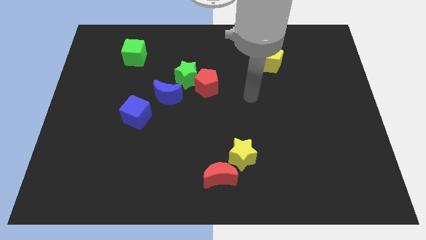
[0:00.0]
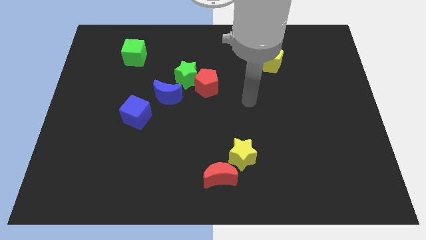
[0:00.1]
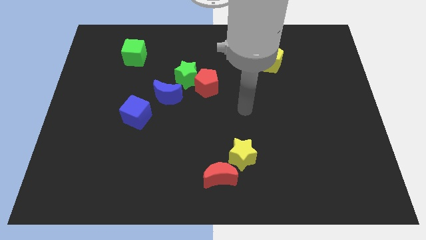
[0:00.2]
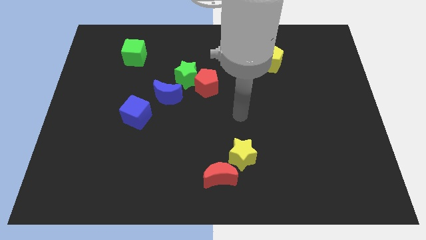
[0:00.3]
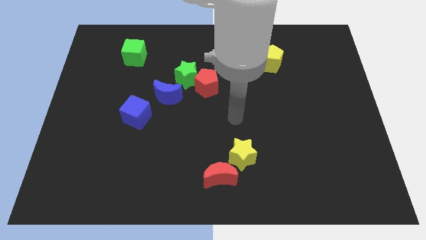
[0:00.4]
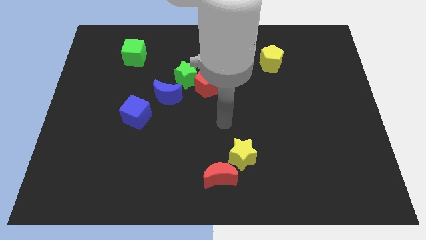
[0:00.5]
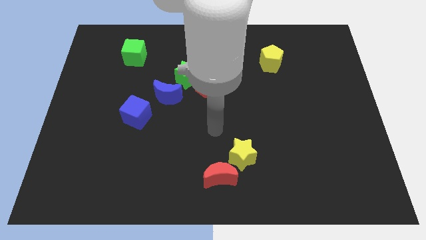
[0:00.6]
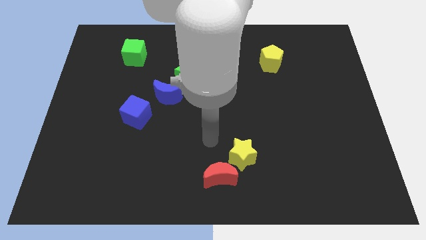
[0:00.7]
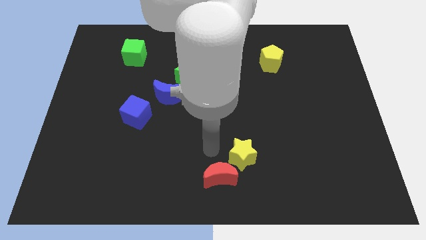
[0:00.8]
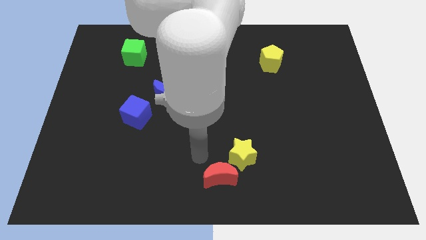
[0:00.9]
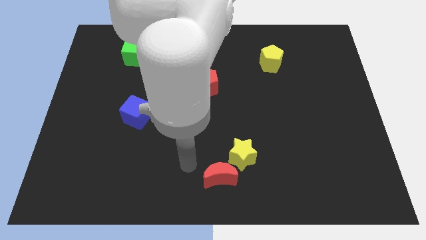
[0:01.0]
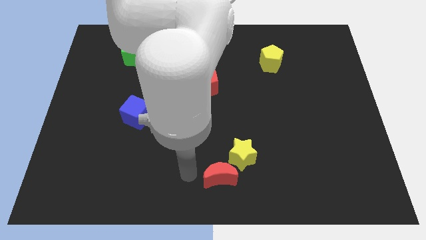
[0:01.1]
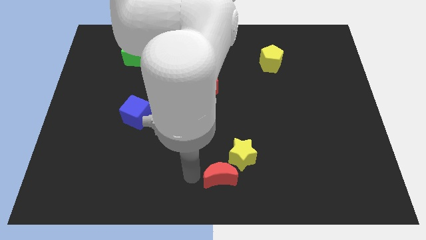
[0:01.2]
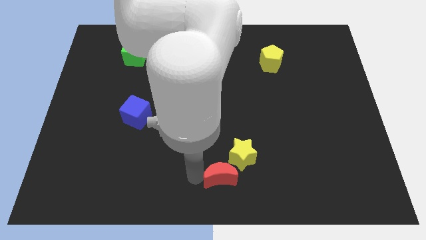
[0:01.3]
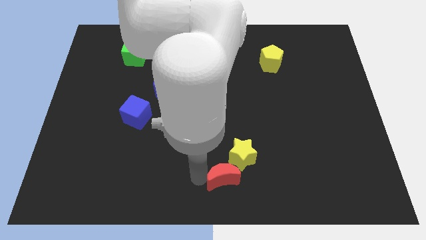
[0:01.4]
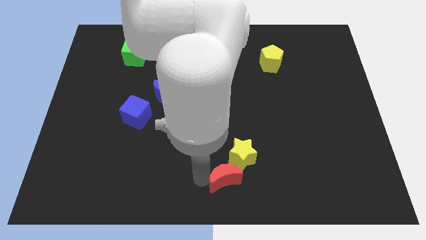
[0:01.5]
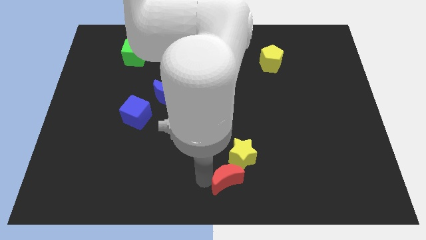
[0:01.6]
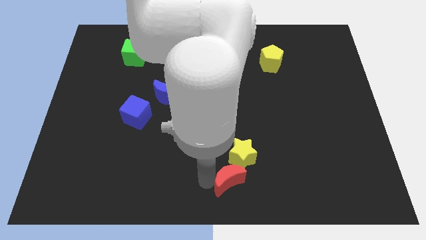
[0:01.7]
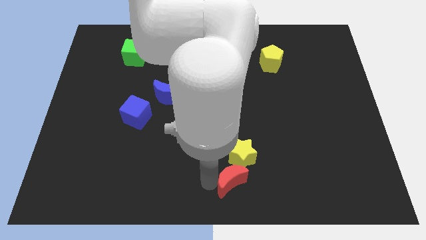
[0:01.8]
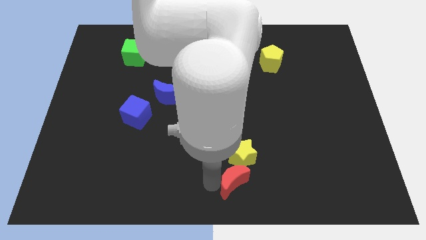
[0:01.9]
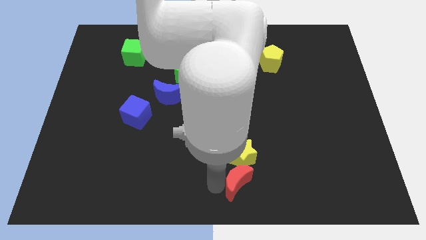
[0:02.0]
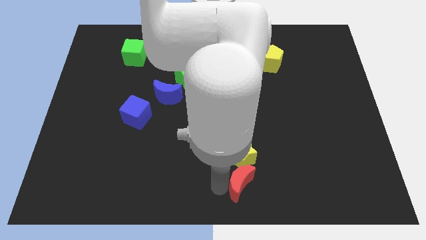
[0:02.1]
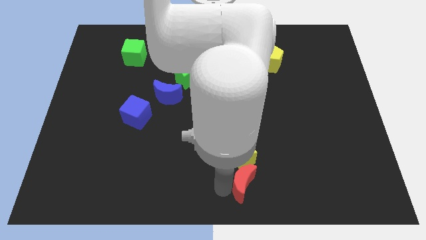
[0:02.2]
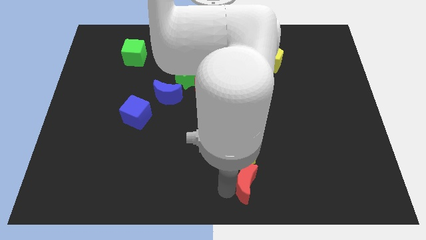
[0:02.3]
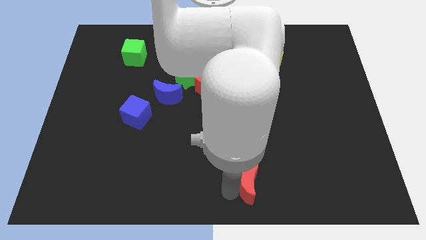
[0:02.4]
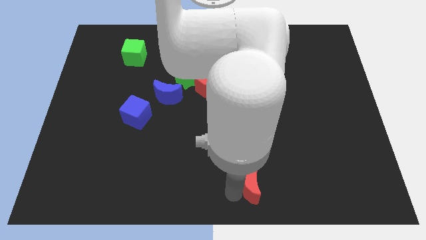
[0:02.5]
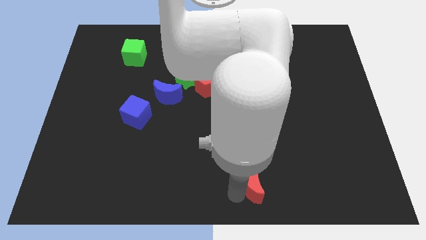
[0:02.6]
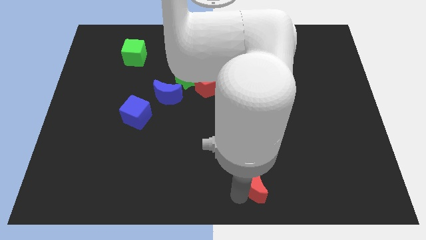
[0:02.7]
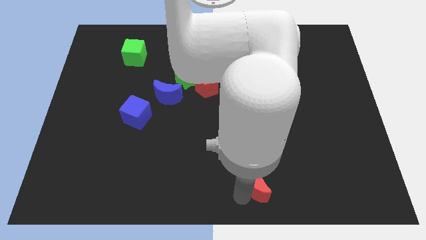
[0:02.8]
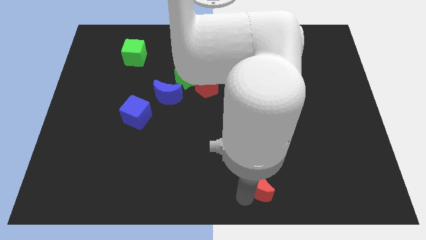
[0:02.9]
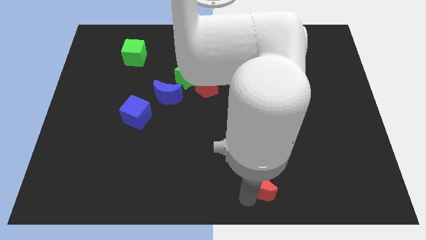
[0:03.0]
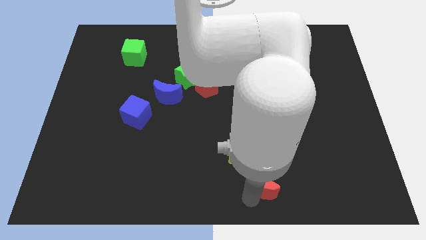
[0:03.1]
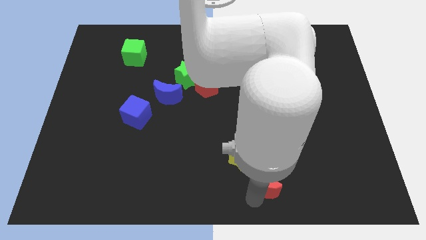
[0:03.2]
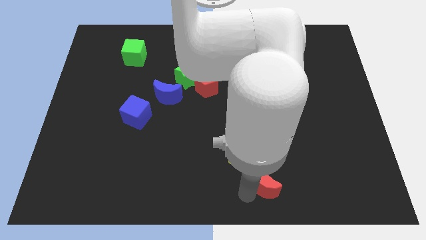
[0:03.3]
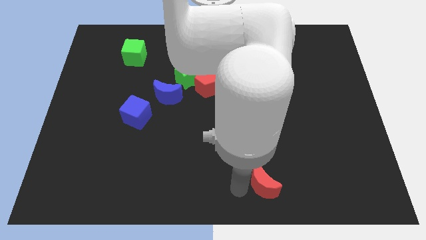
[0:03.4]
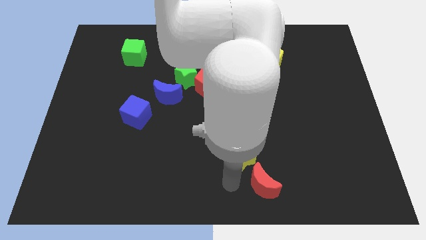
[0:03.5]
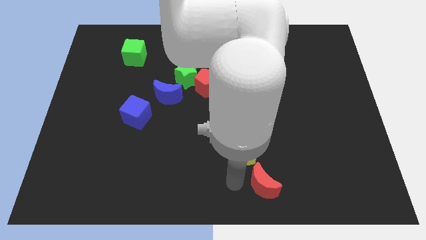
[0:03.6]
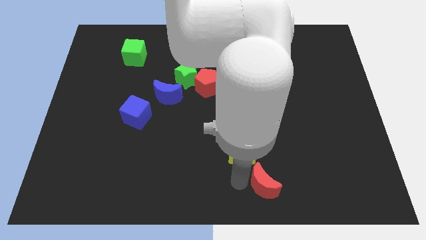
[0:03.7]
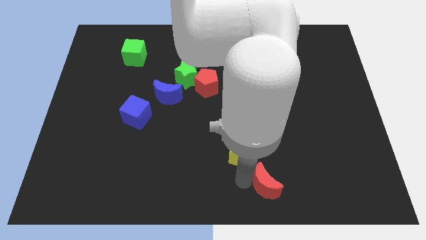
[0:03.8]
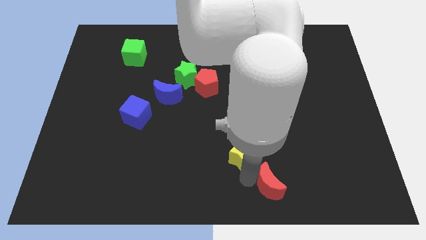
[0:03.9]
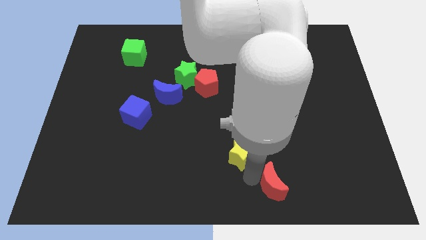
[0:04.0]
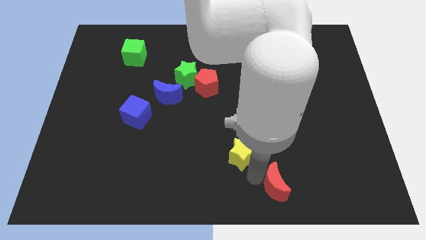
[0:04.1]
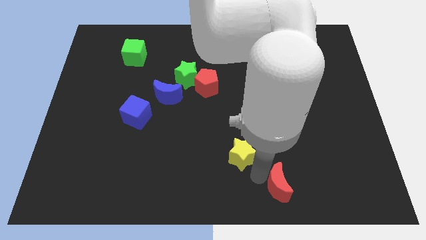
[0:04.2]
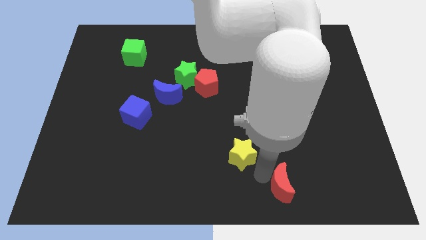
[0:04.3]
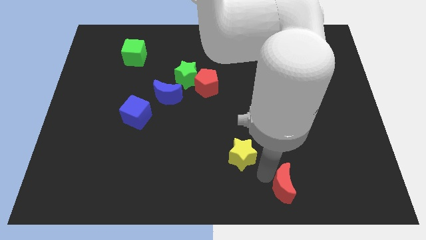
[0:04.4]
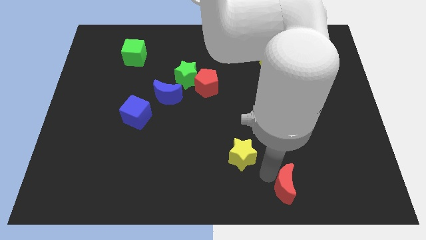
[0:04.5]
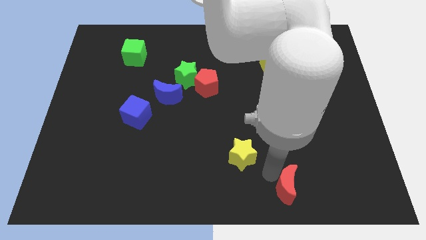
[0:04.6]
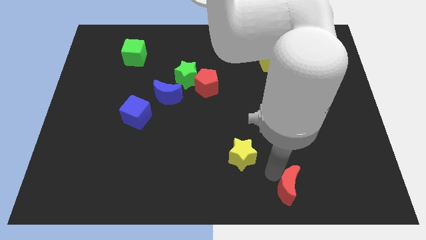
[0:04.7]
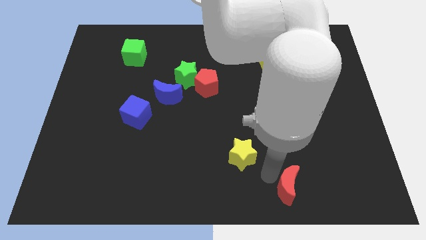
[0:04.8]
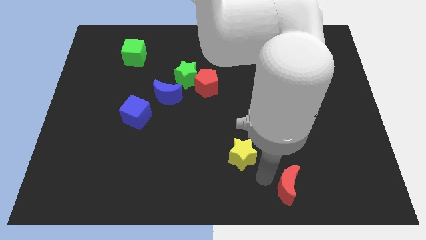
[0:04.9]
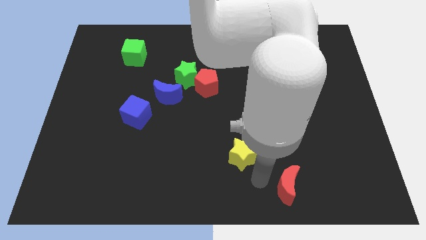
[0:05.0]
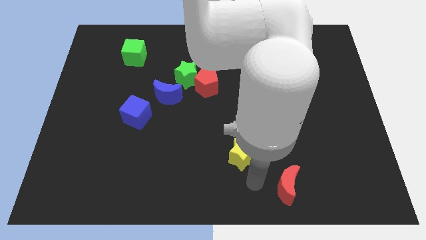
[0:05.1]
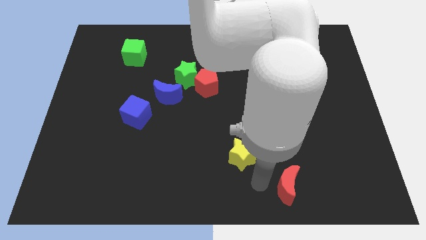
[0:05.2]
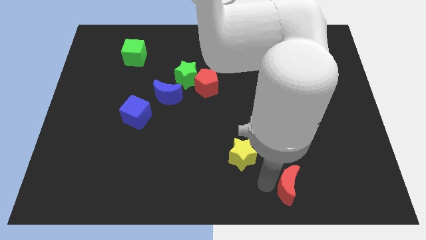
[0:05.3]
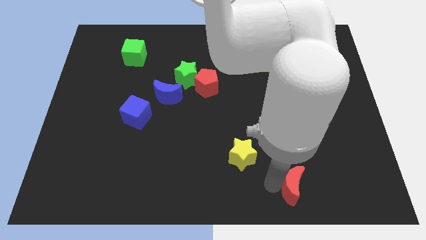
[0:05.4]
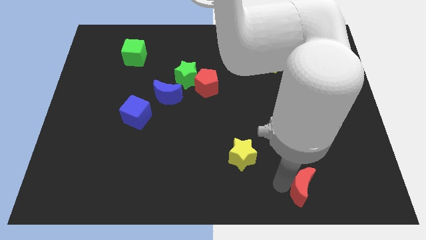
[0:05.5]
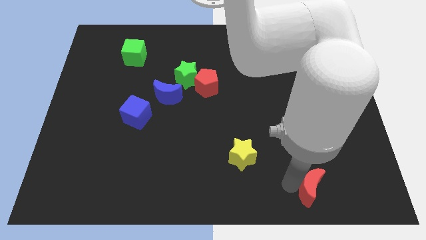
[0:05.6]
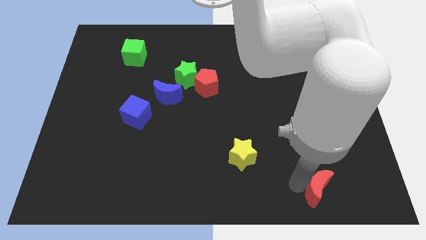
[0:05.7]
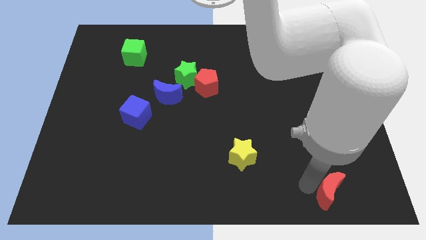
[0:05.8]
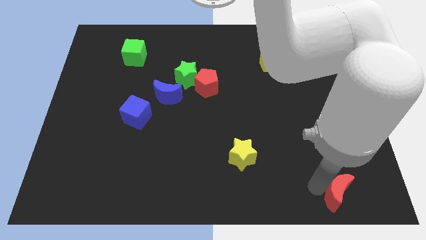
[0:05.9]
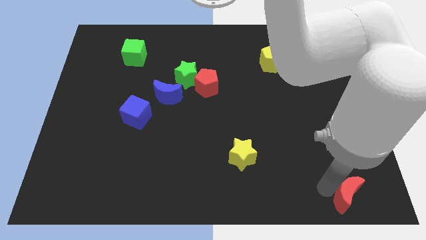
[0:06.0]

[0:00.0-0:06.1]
put the red moon to the bottom right corner
